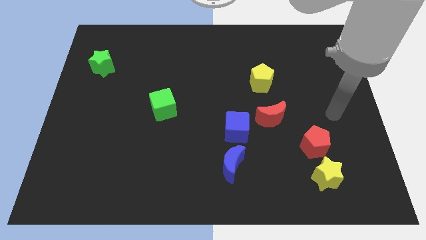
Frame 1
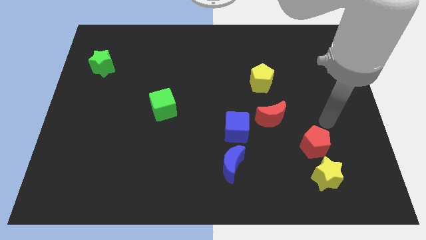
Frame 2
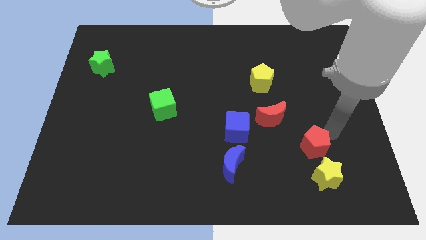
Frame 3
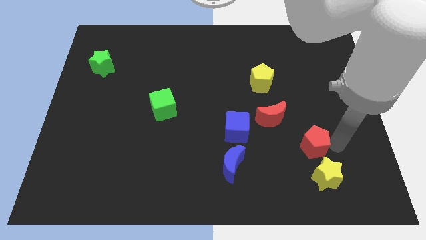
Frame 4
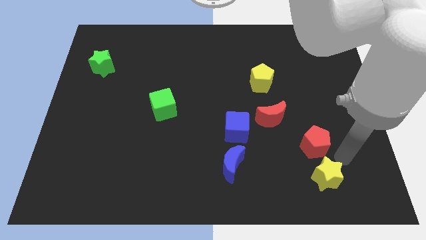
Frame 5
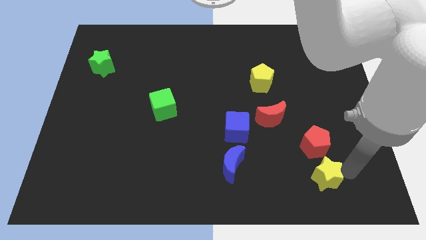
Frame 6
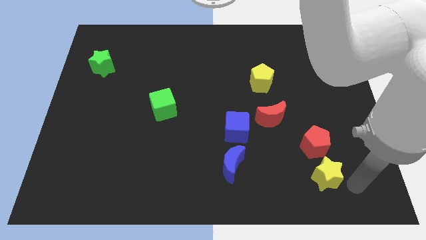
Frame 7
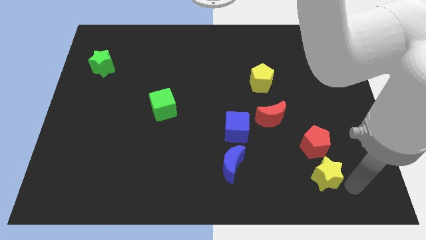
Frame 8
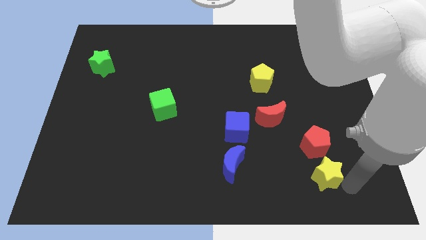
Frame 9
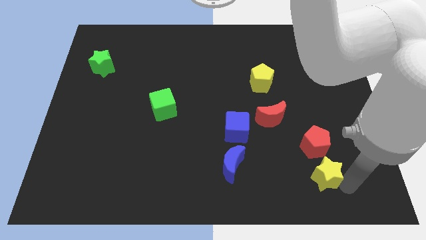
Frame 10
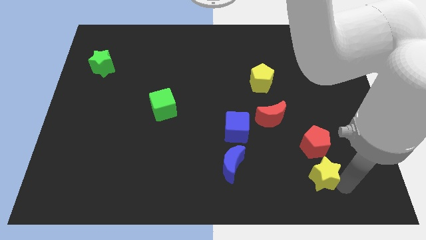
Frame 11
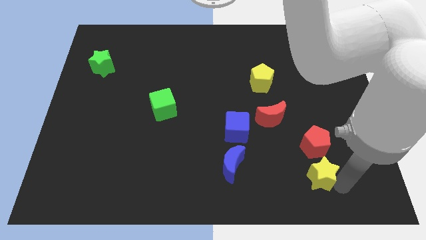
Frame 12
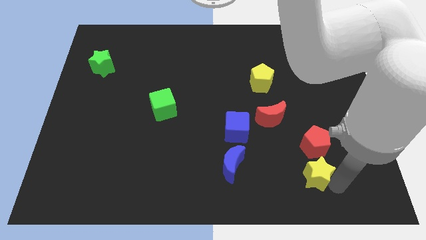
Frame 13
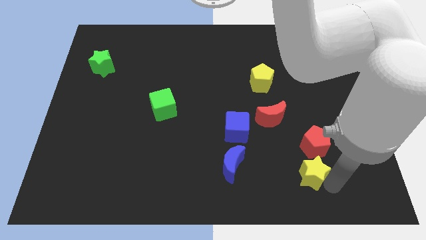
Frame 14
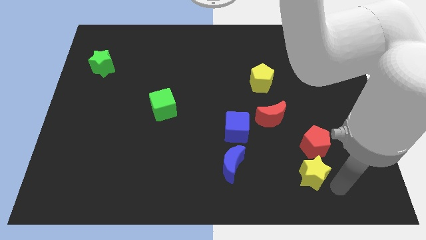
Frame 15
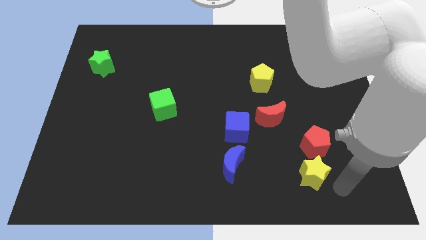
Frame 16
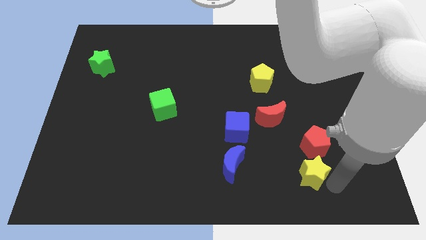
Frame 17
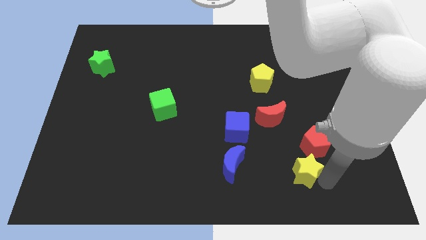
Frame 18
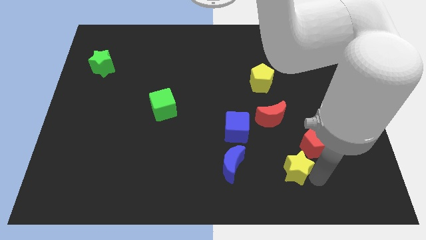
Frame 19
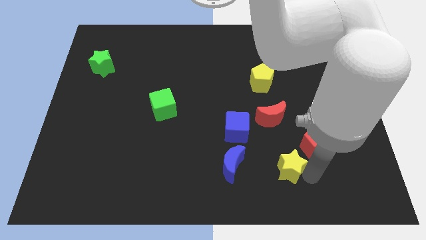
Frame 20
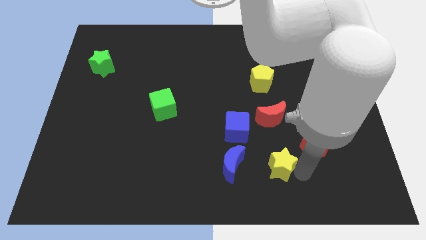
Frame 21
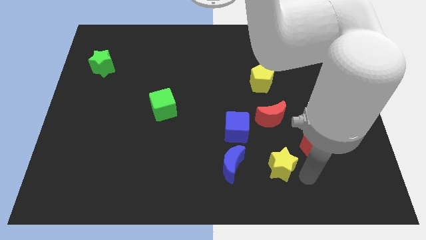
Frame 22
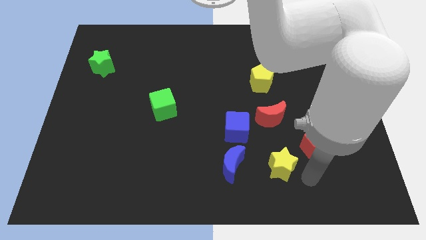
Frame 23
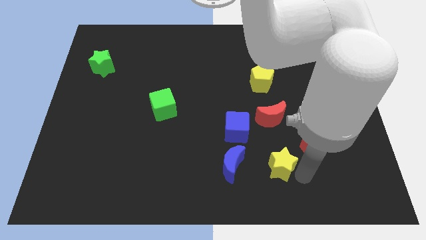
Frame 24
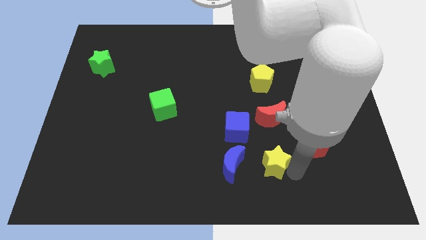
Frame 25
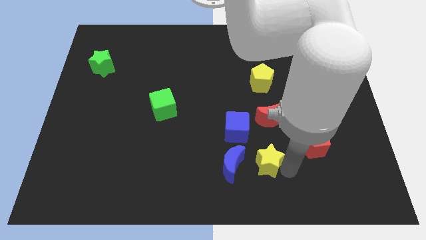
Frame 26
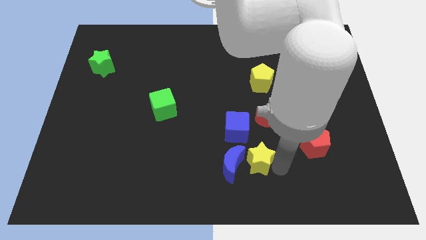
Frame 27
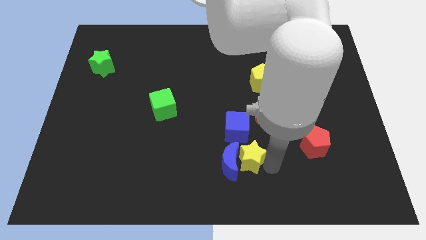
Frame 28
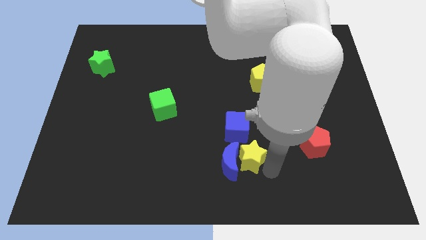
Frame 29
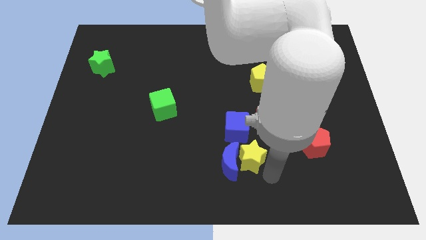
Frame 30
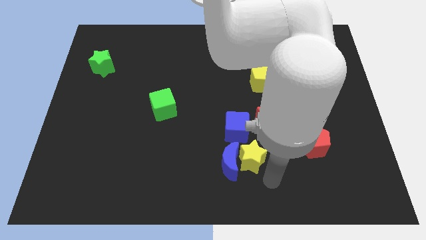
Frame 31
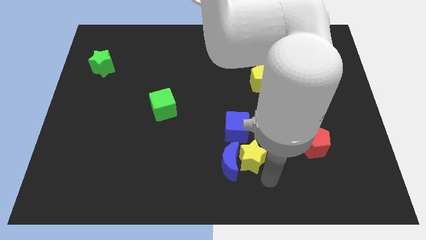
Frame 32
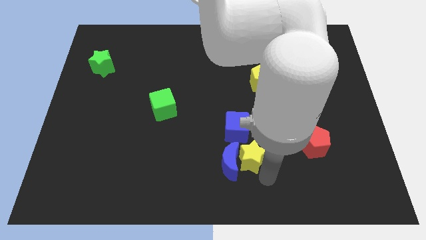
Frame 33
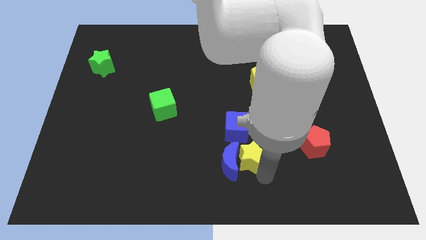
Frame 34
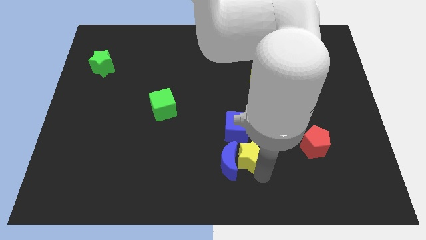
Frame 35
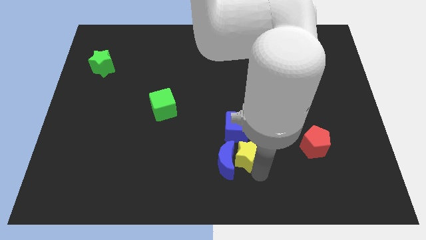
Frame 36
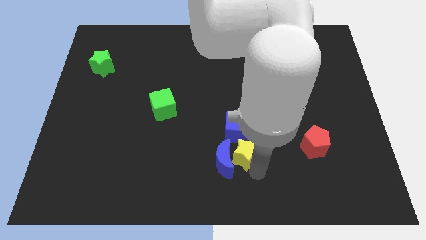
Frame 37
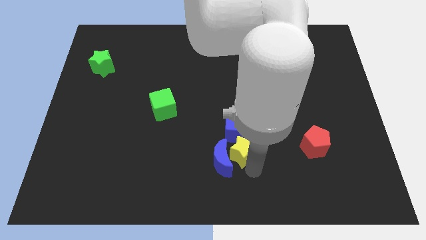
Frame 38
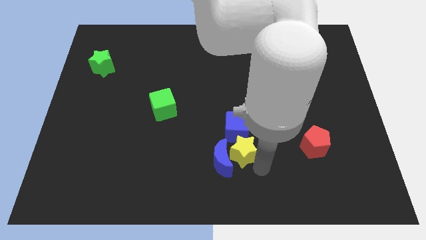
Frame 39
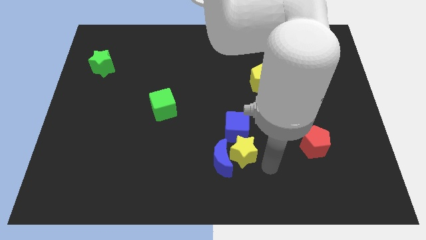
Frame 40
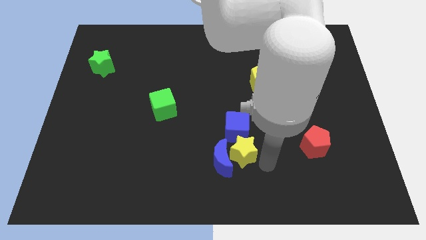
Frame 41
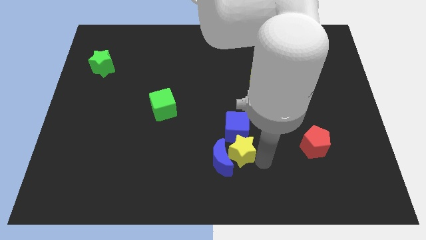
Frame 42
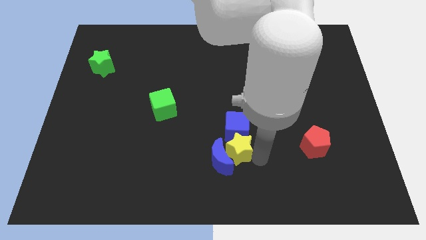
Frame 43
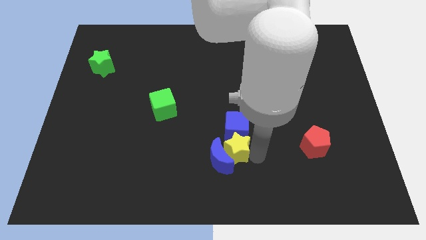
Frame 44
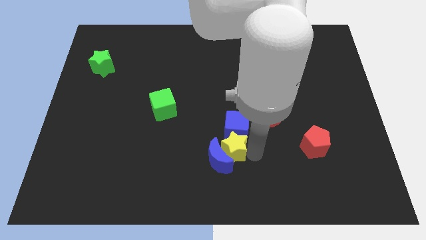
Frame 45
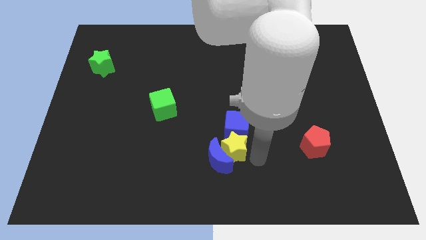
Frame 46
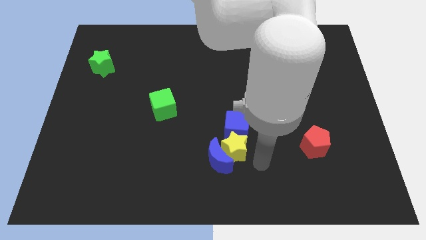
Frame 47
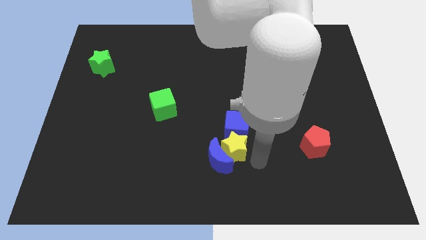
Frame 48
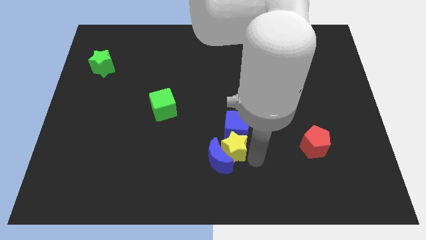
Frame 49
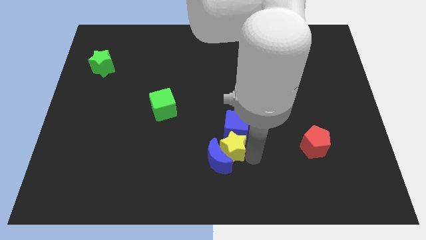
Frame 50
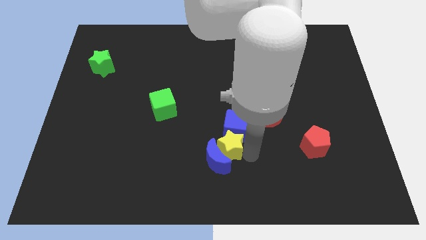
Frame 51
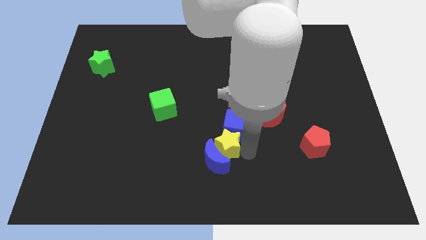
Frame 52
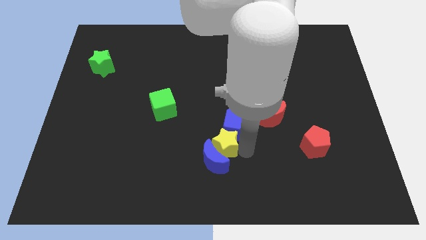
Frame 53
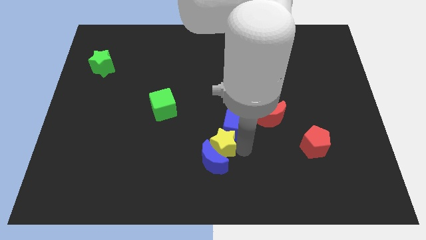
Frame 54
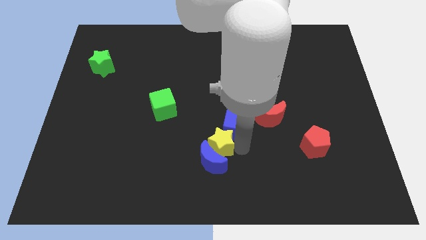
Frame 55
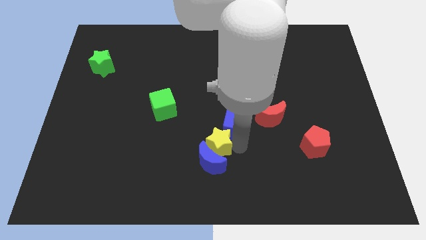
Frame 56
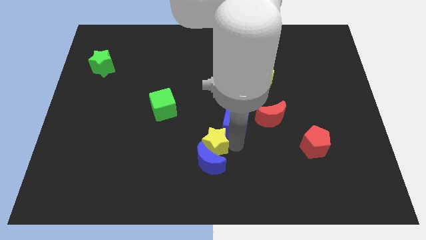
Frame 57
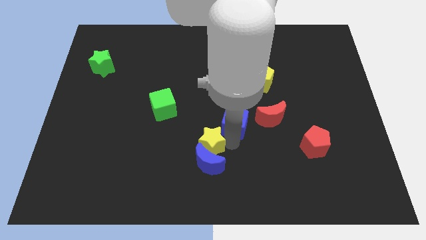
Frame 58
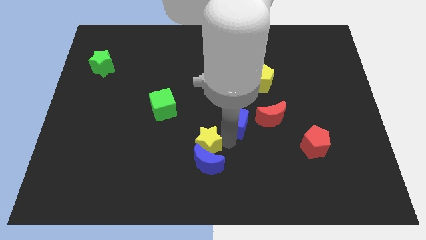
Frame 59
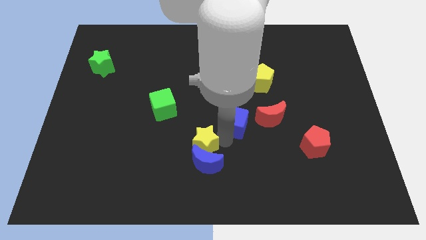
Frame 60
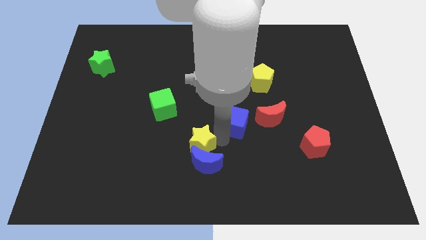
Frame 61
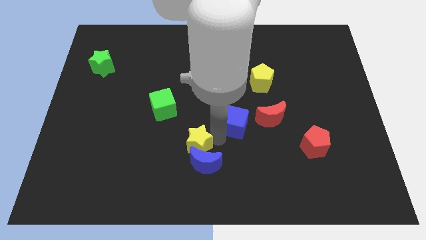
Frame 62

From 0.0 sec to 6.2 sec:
put the yellow star diagonally down and to the right of the green cube

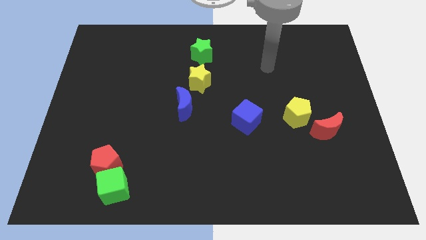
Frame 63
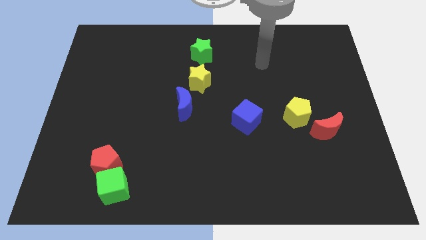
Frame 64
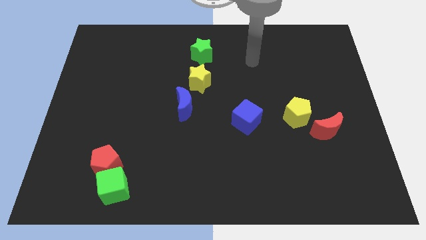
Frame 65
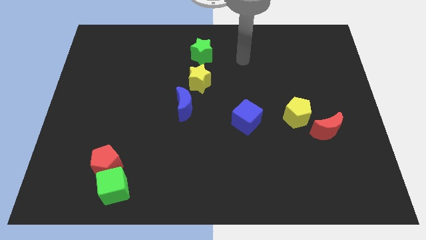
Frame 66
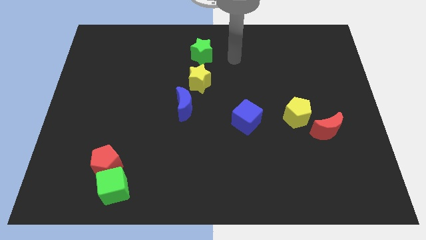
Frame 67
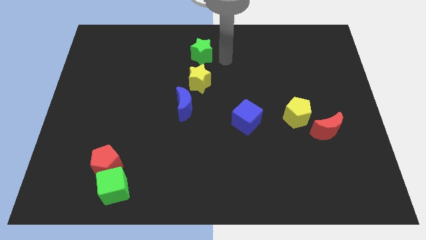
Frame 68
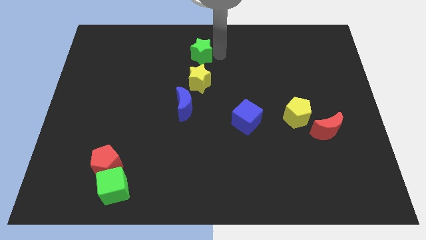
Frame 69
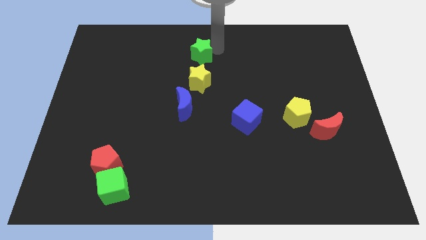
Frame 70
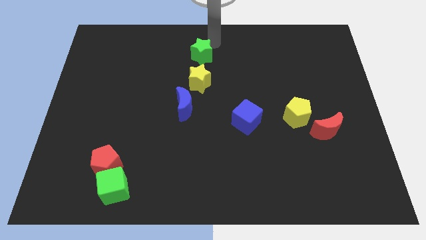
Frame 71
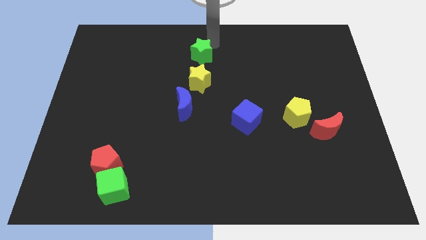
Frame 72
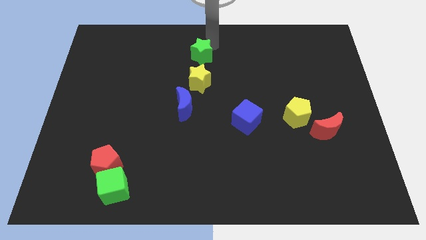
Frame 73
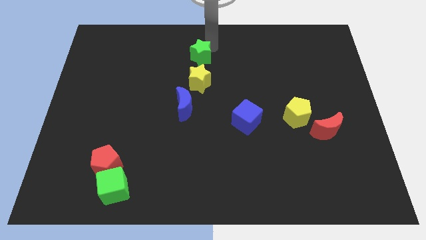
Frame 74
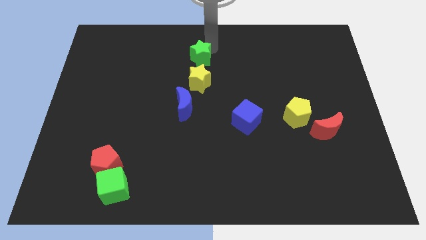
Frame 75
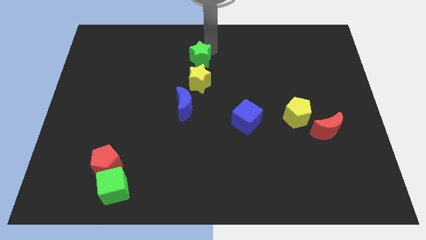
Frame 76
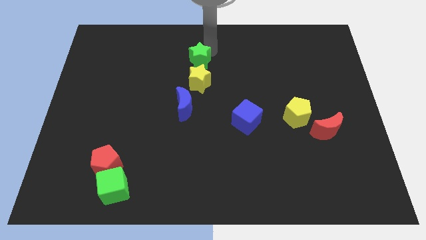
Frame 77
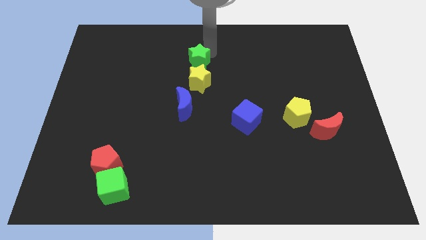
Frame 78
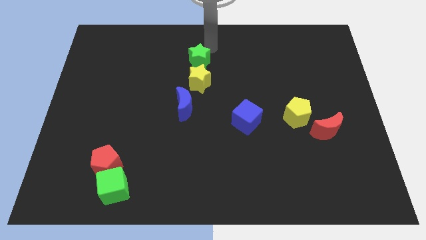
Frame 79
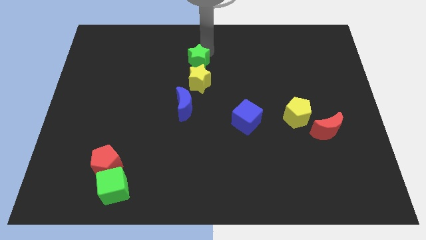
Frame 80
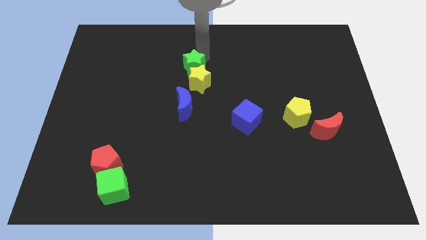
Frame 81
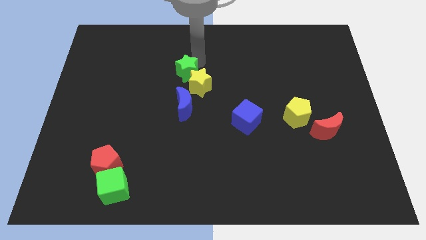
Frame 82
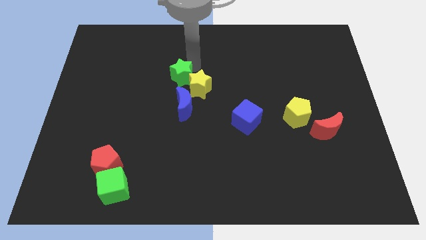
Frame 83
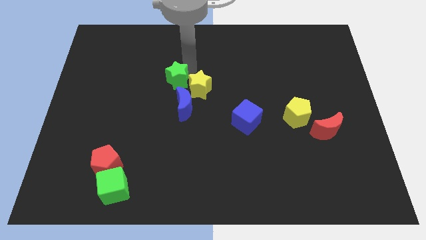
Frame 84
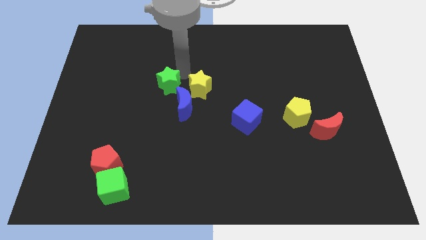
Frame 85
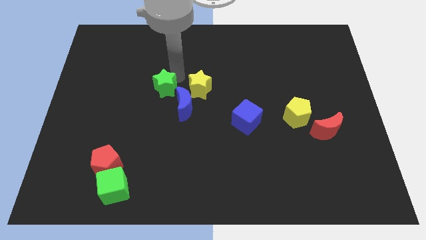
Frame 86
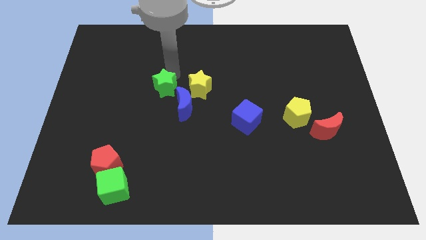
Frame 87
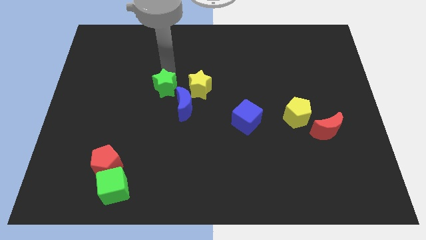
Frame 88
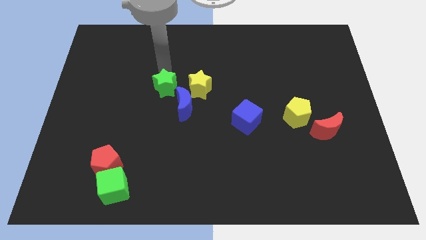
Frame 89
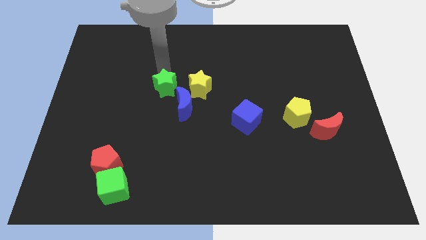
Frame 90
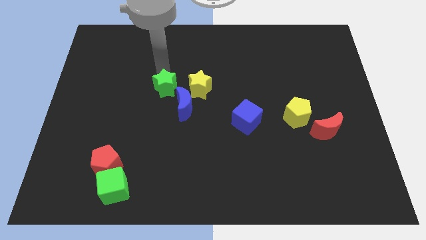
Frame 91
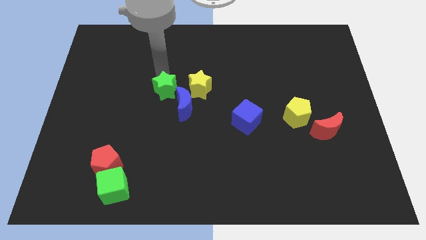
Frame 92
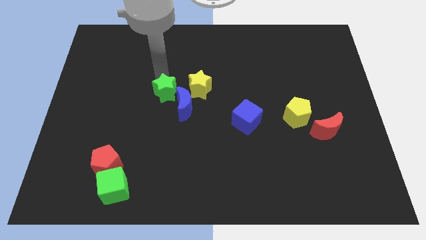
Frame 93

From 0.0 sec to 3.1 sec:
push the green star diagonally down and to the left of the yellow star
